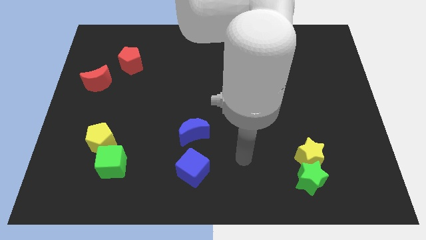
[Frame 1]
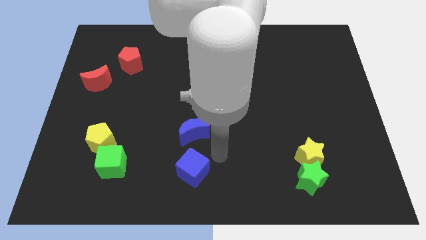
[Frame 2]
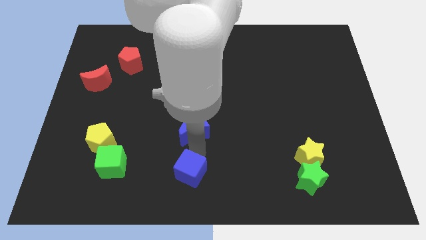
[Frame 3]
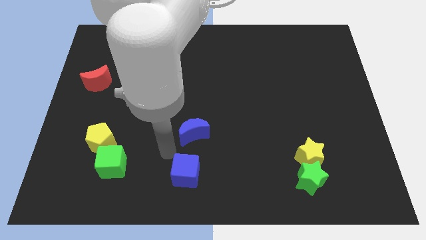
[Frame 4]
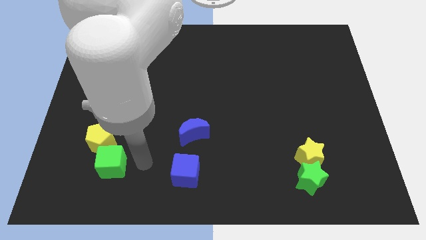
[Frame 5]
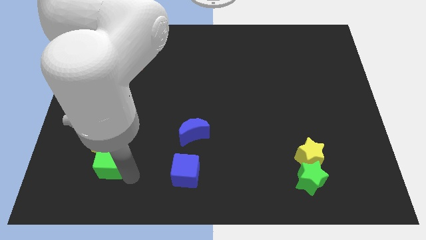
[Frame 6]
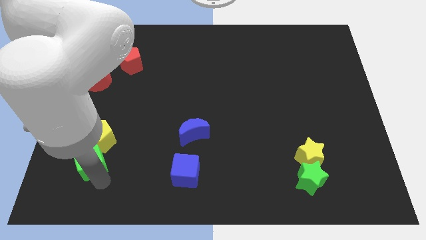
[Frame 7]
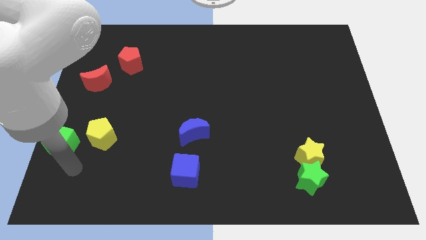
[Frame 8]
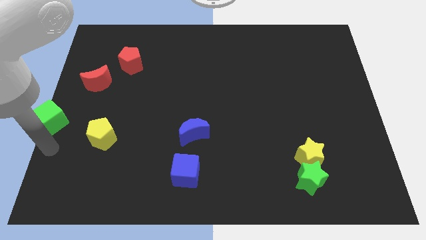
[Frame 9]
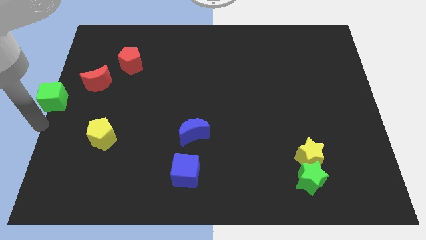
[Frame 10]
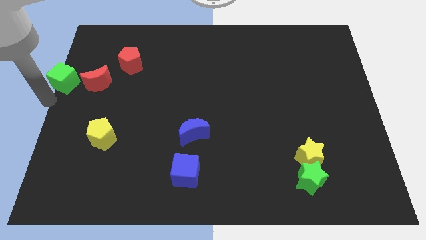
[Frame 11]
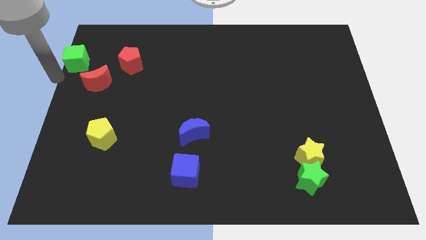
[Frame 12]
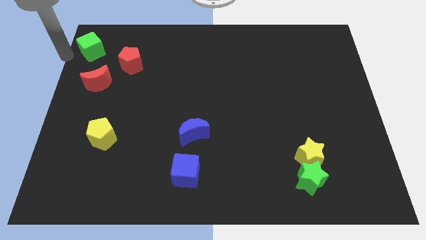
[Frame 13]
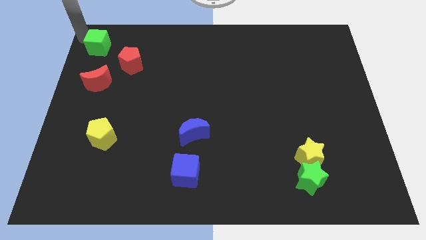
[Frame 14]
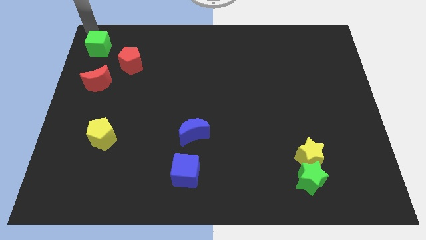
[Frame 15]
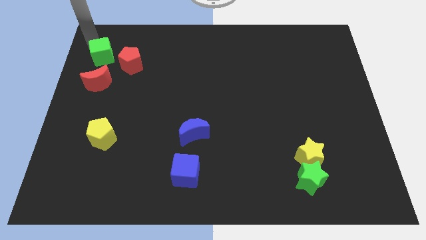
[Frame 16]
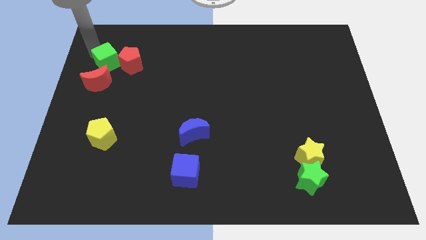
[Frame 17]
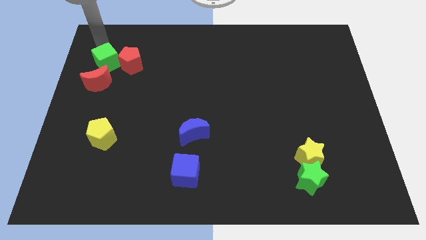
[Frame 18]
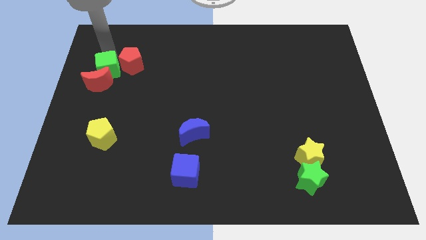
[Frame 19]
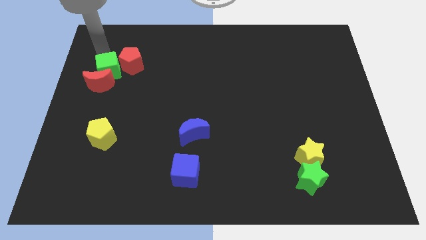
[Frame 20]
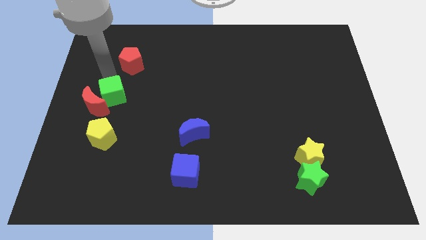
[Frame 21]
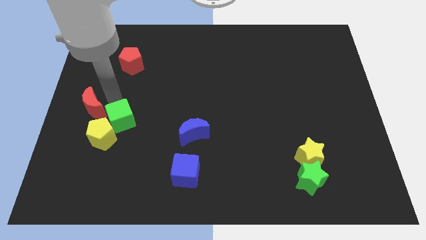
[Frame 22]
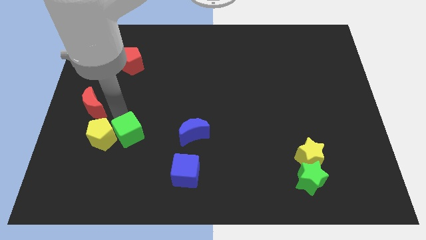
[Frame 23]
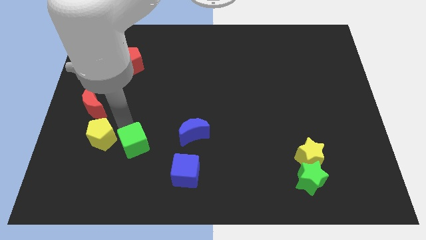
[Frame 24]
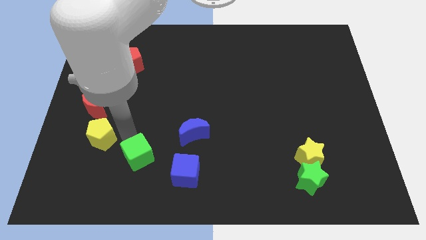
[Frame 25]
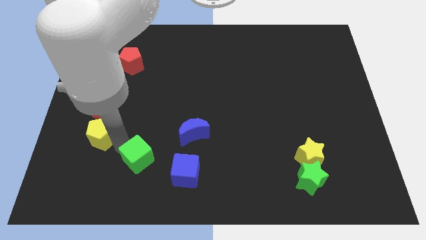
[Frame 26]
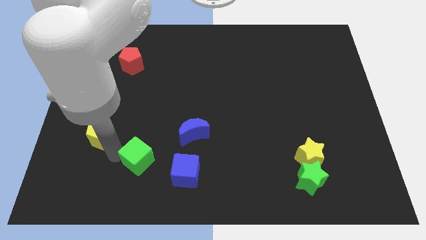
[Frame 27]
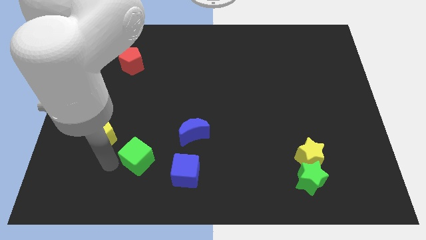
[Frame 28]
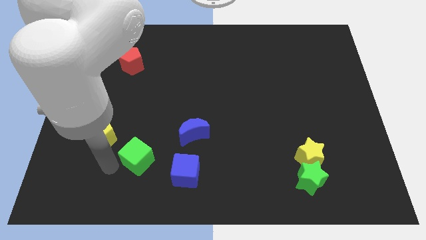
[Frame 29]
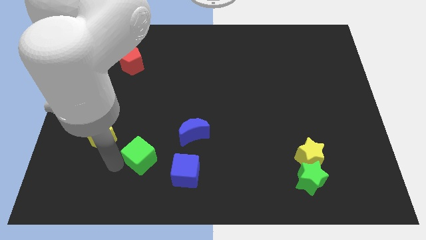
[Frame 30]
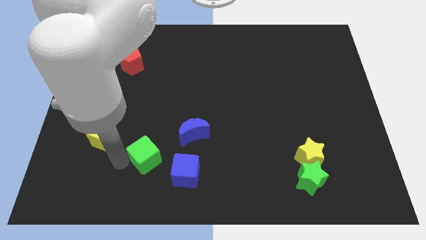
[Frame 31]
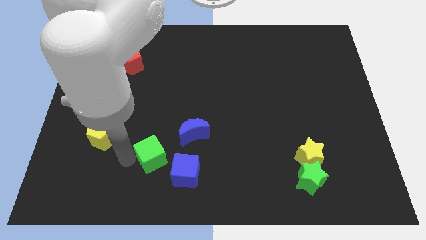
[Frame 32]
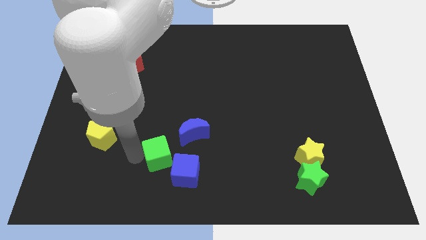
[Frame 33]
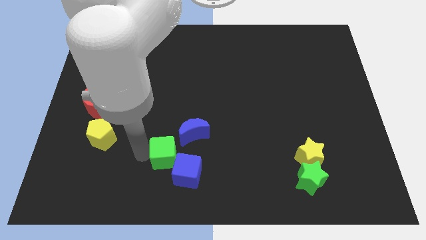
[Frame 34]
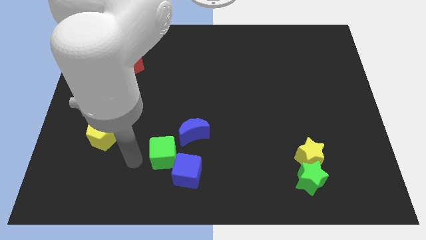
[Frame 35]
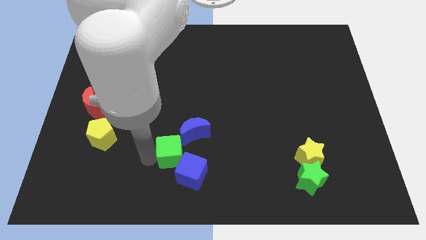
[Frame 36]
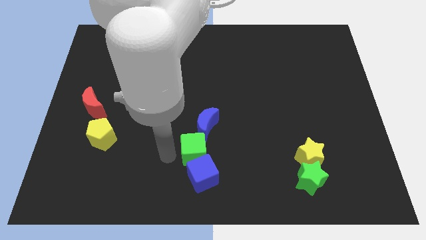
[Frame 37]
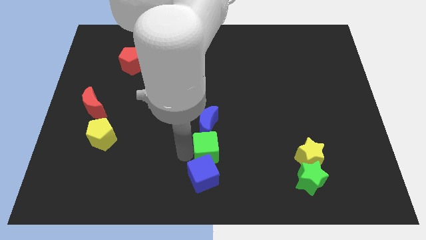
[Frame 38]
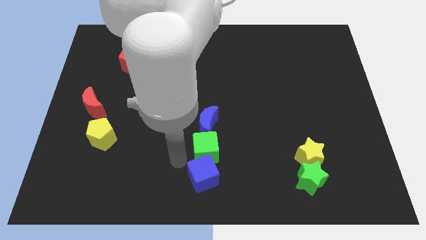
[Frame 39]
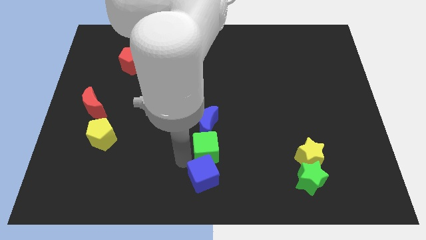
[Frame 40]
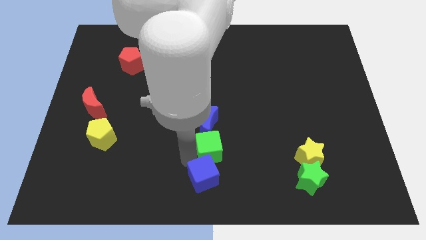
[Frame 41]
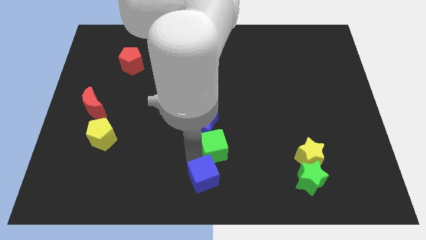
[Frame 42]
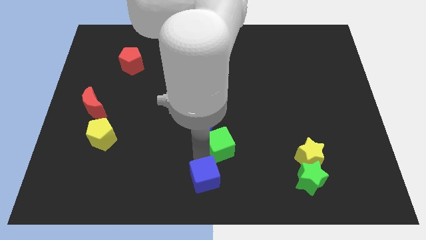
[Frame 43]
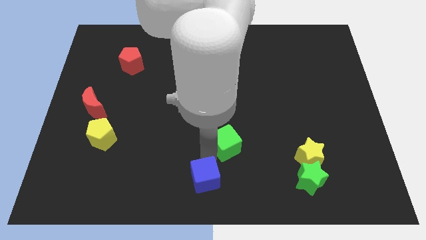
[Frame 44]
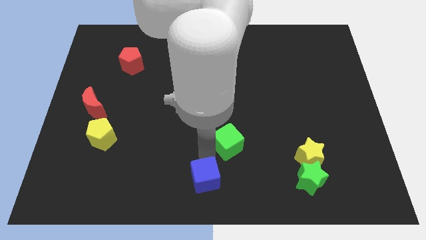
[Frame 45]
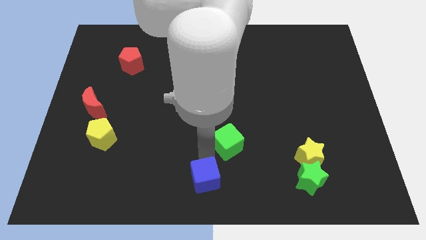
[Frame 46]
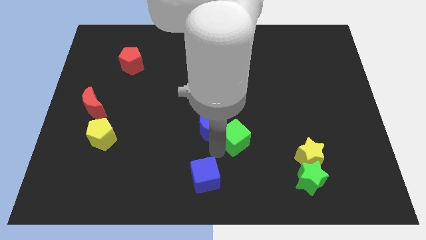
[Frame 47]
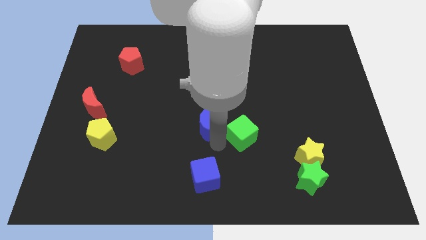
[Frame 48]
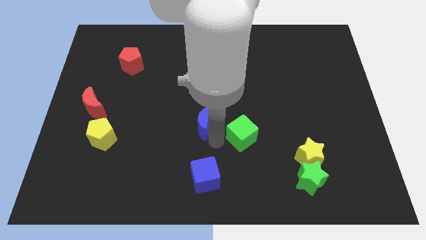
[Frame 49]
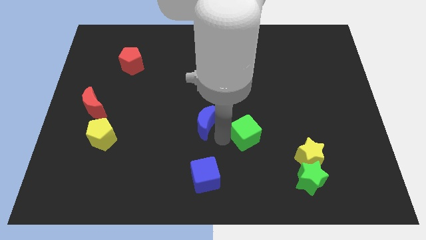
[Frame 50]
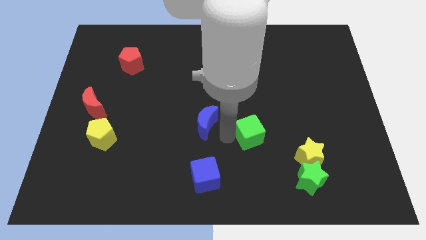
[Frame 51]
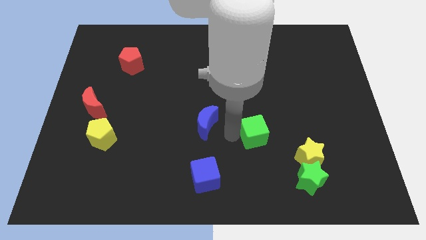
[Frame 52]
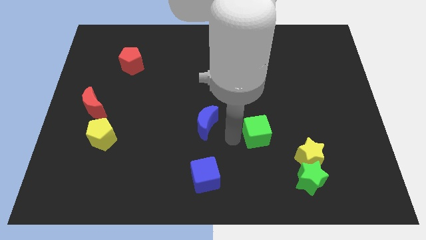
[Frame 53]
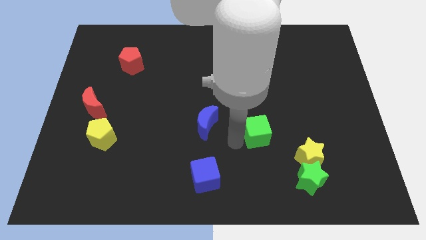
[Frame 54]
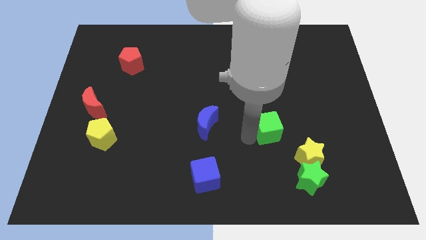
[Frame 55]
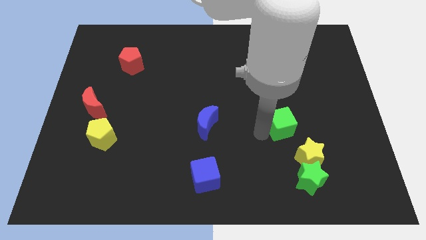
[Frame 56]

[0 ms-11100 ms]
move the green cube above the yellow star
